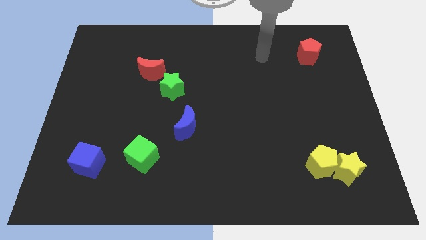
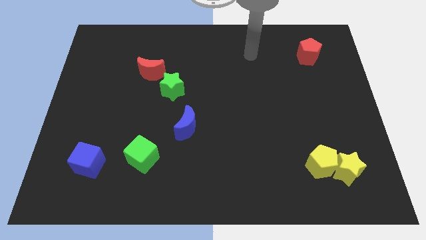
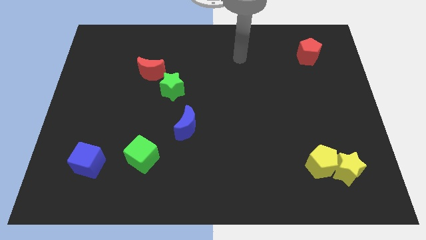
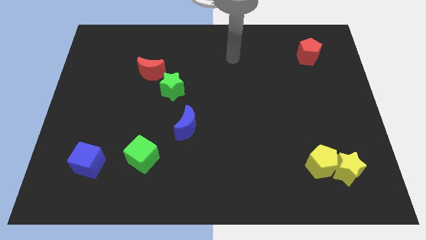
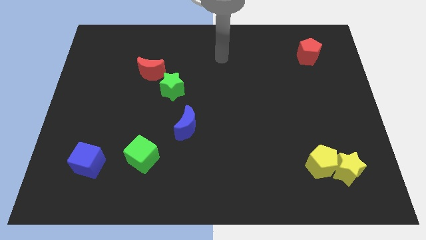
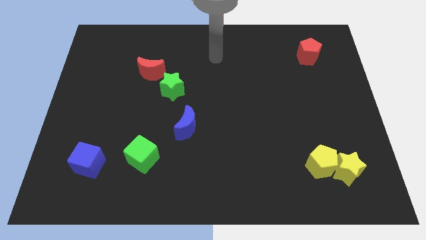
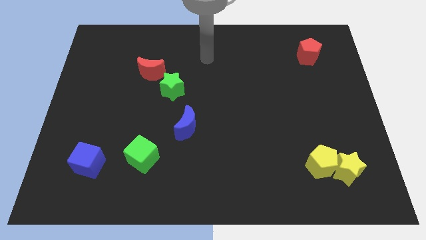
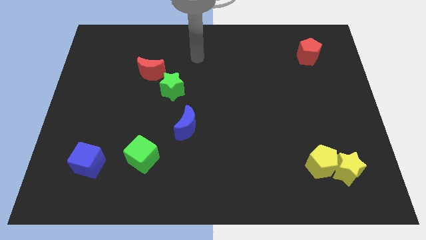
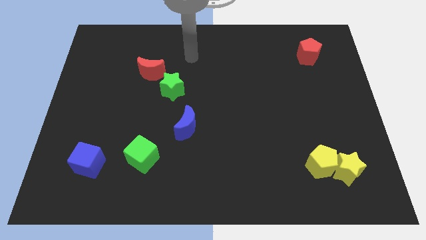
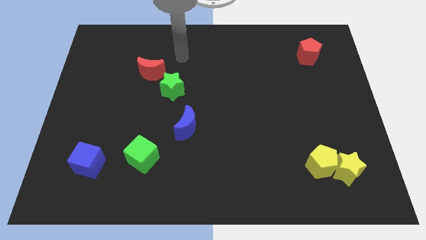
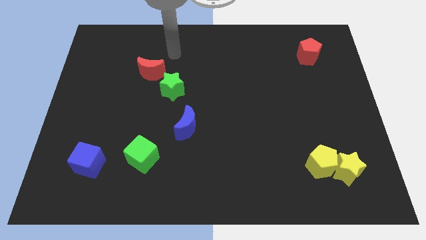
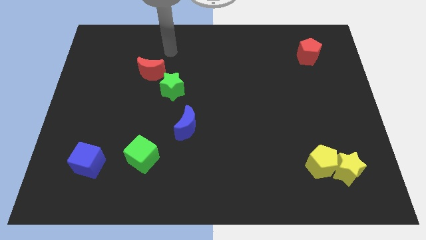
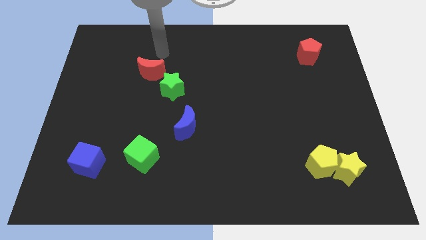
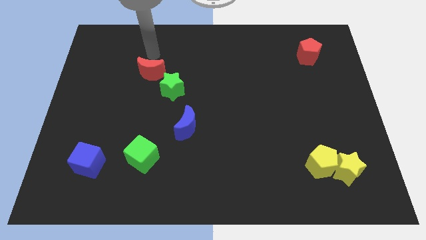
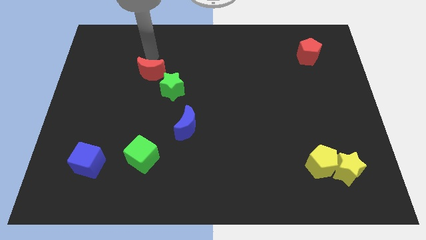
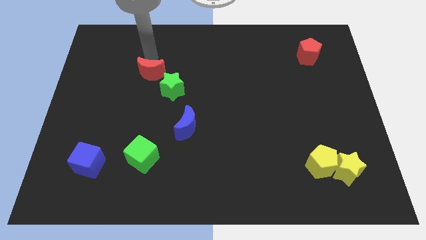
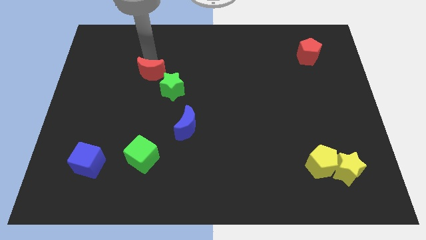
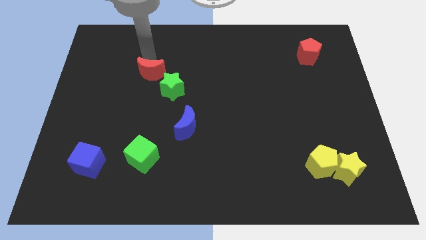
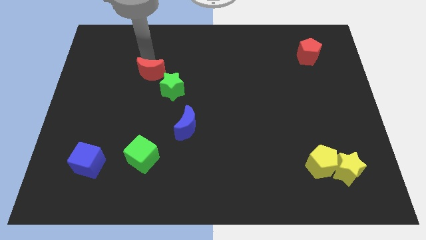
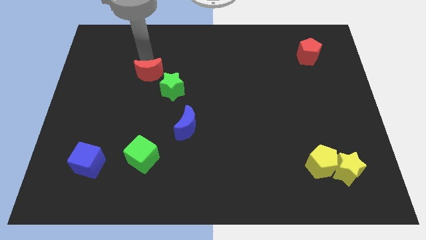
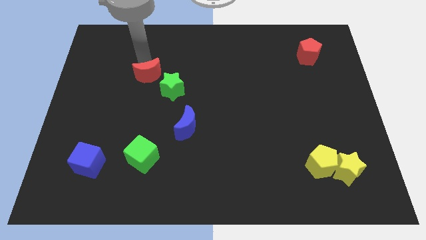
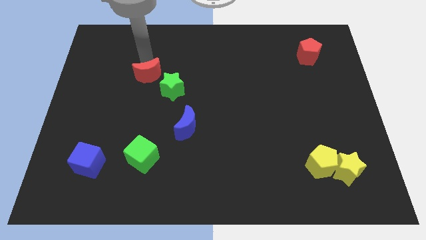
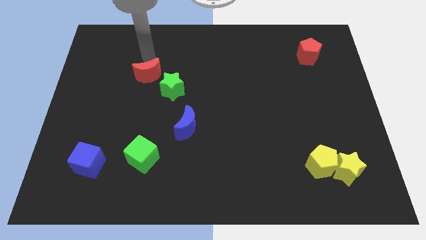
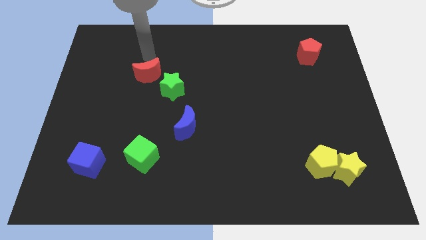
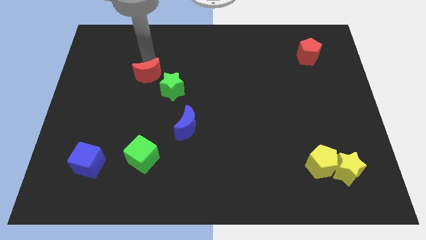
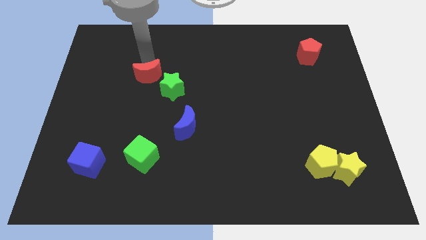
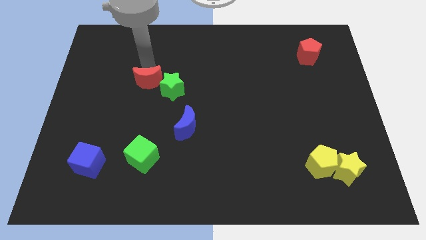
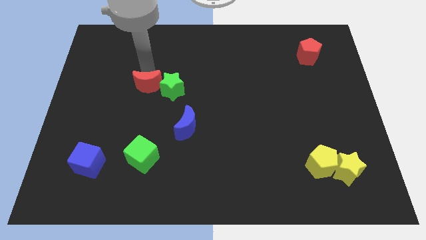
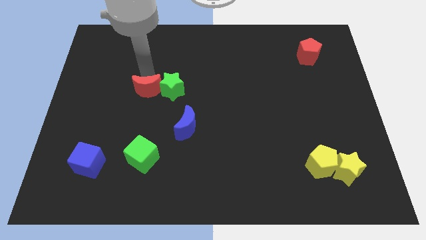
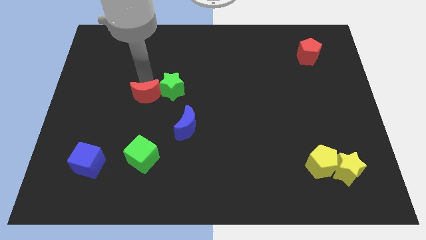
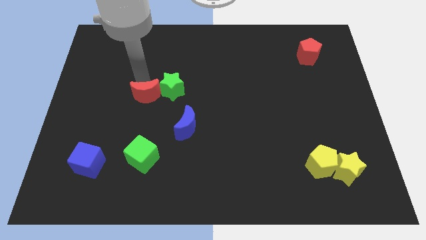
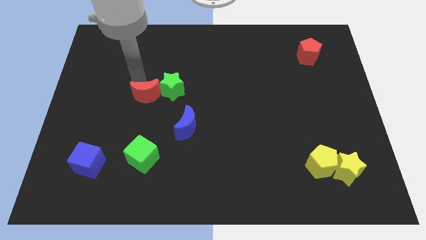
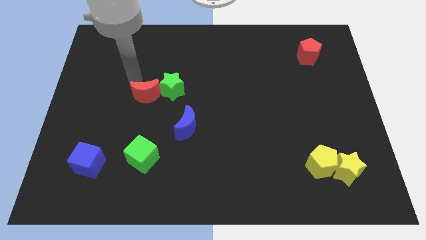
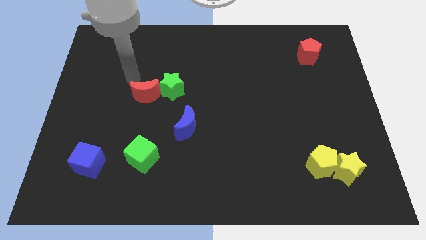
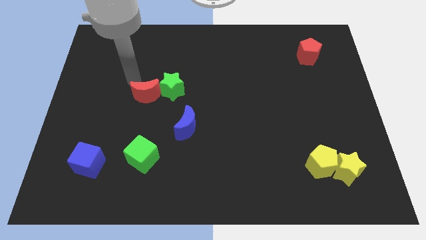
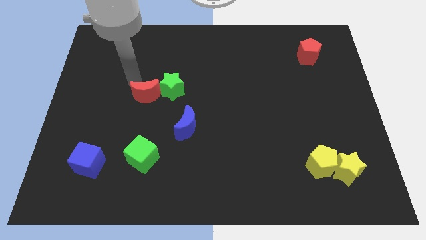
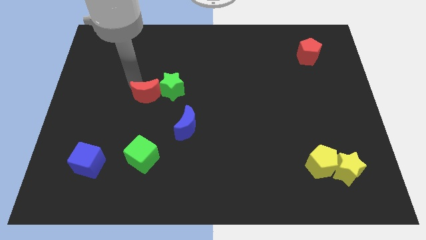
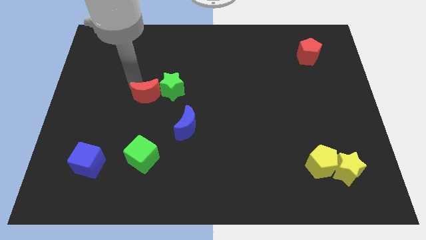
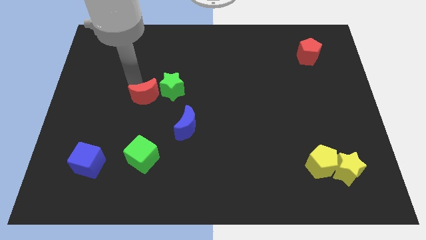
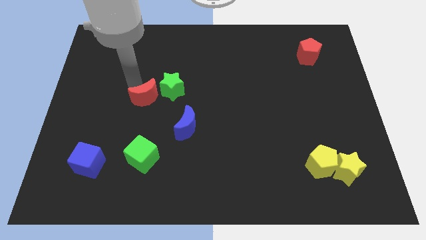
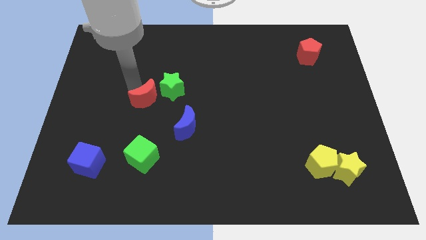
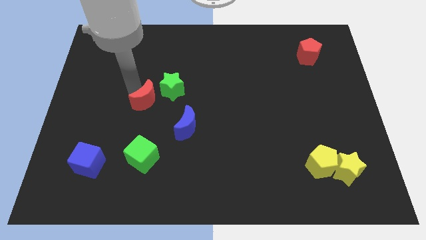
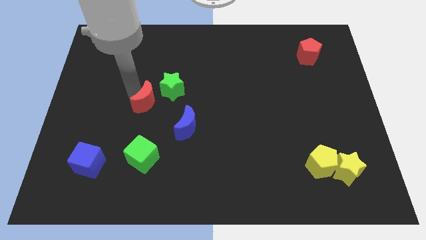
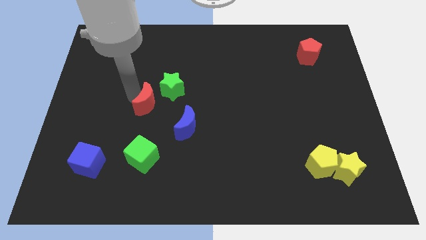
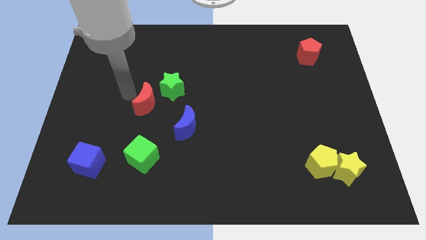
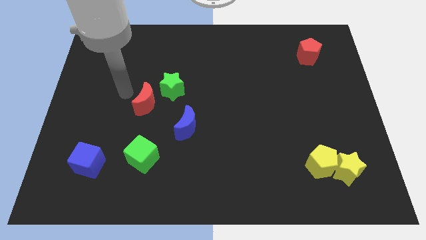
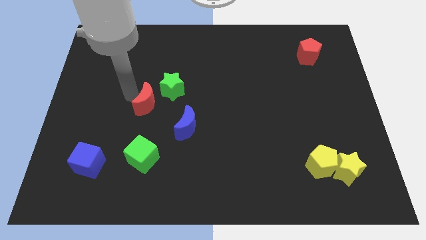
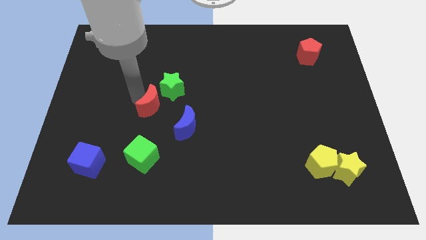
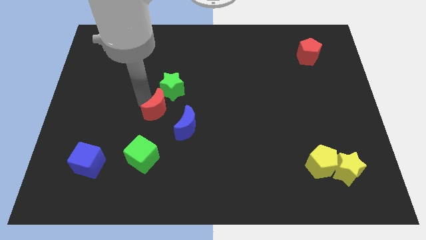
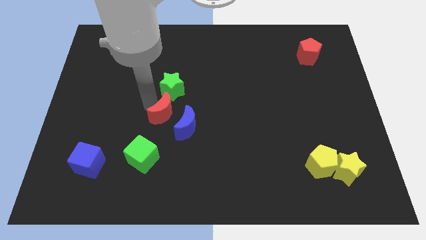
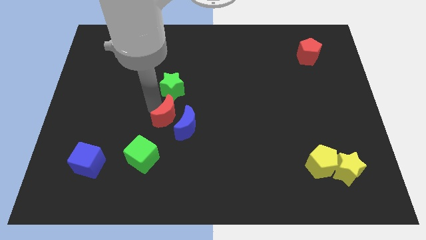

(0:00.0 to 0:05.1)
put the red moon next to the blue moon

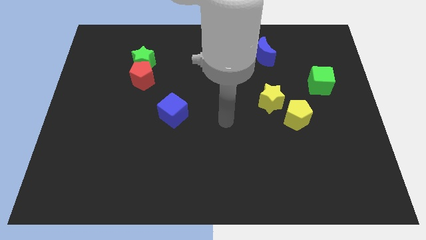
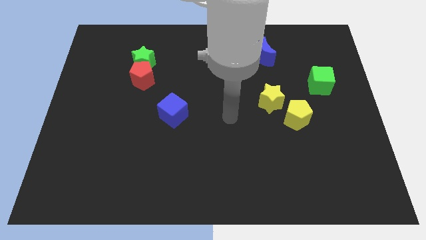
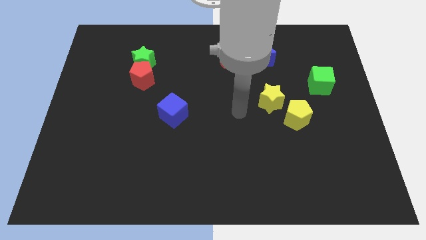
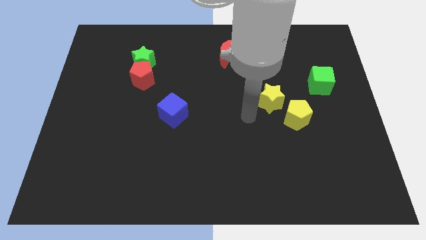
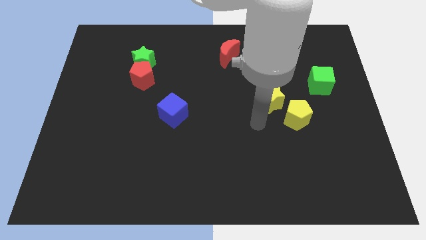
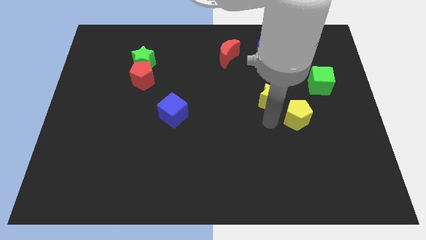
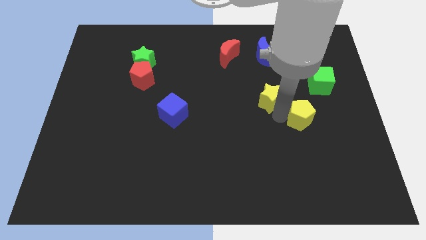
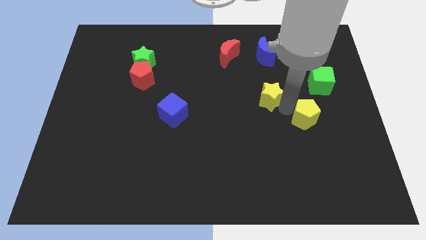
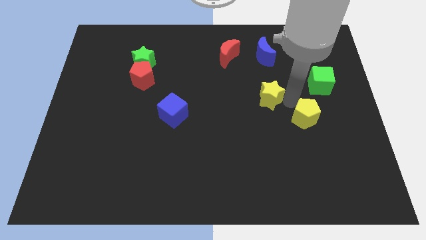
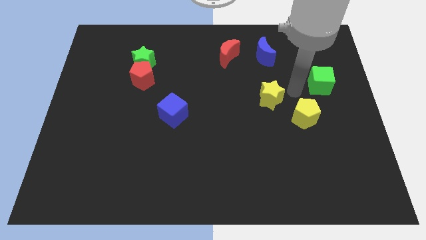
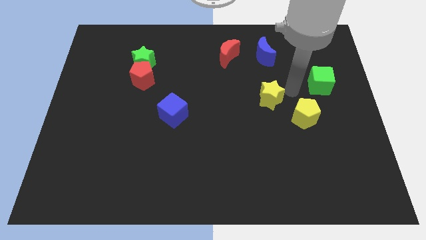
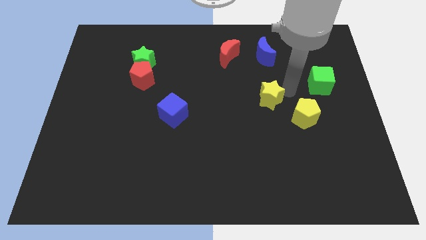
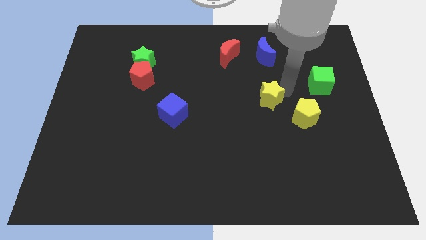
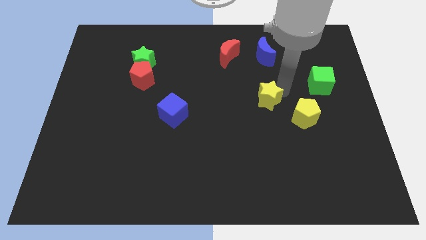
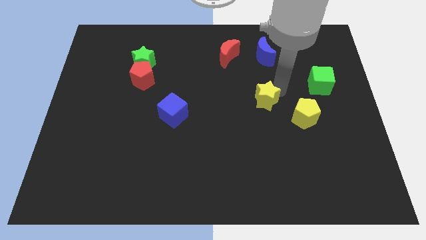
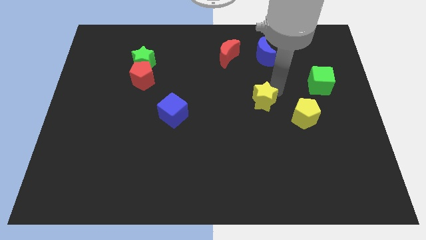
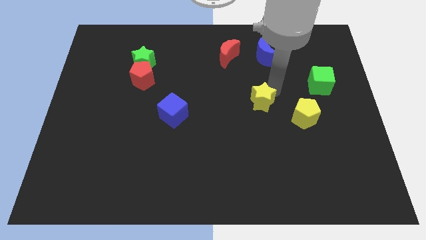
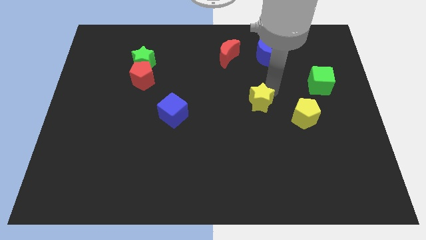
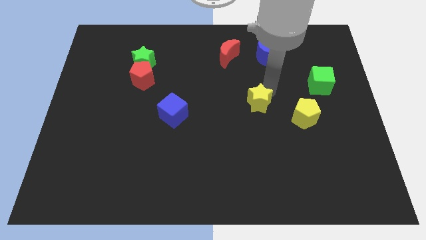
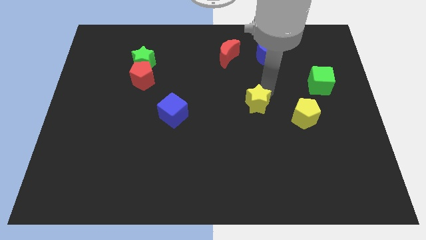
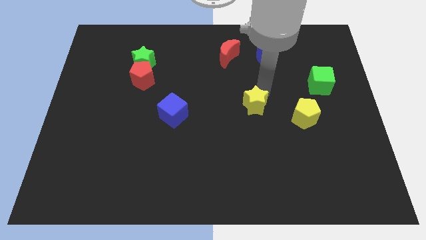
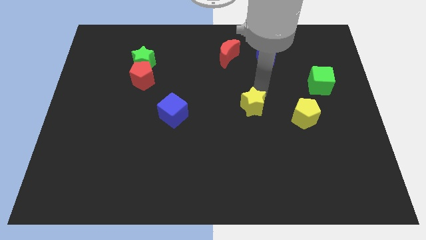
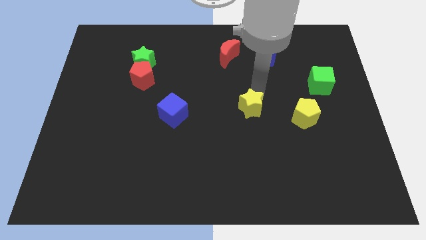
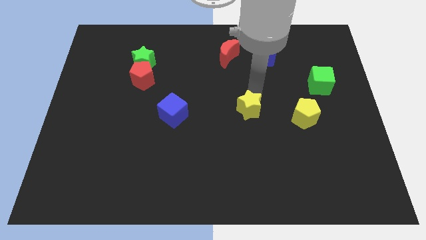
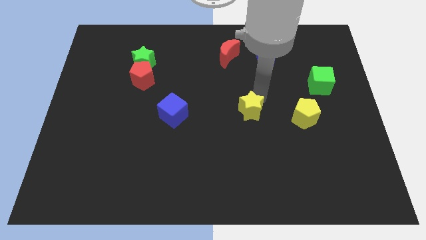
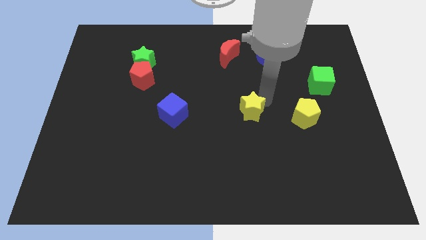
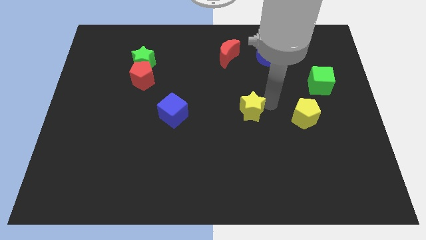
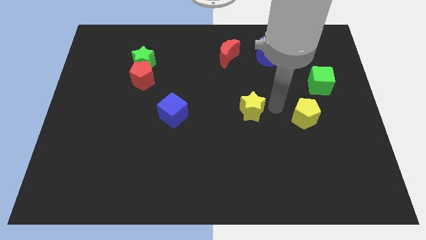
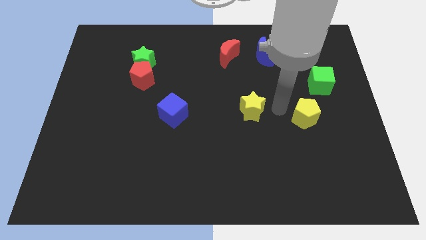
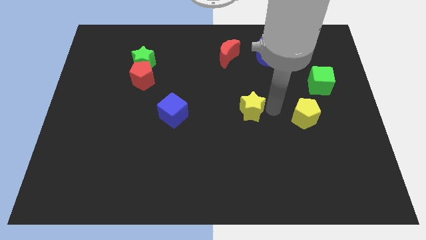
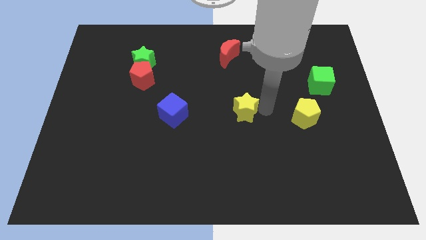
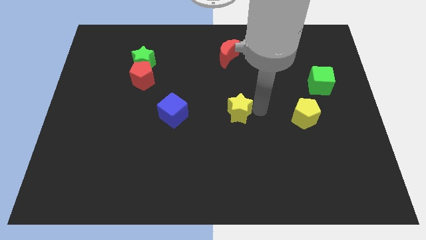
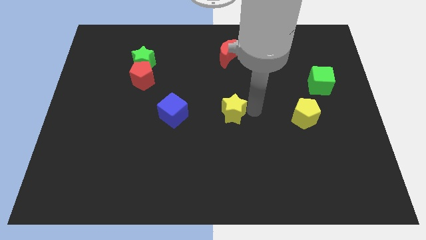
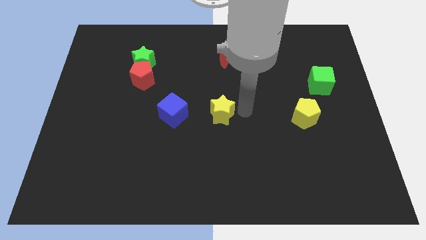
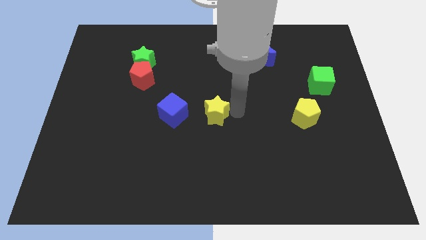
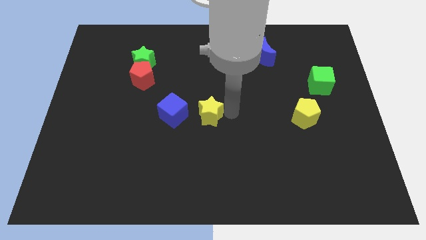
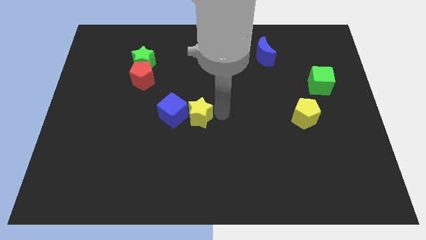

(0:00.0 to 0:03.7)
move the yellow star close to the blue cube
